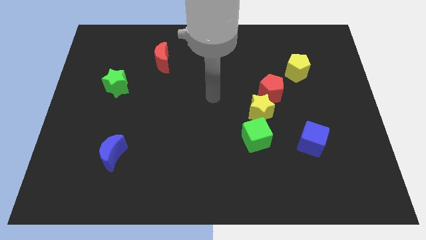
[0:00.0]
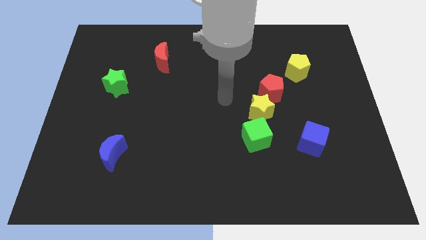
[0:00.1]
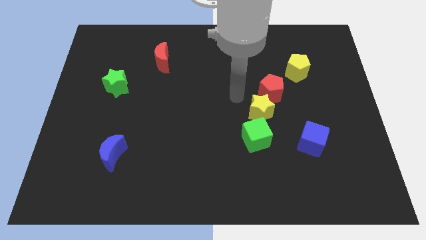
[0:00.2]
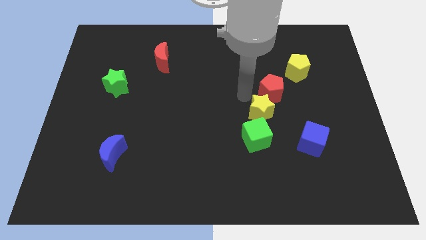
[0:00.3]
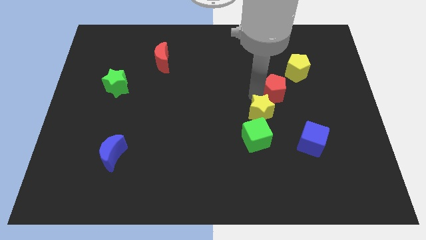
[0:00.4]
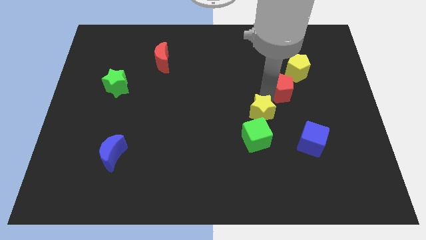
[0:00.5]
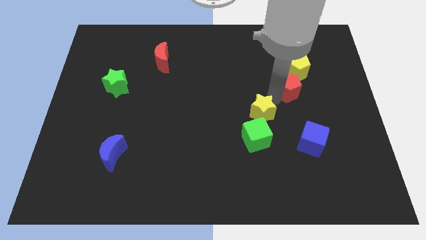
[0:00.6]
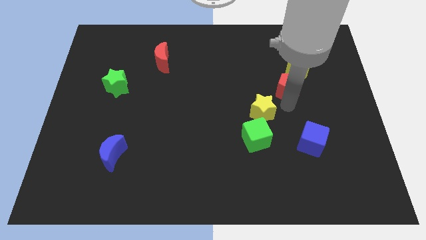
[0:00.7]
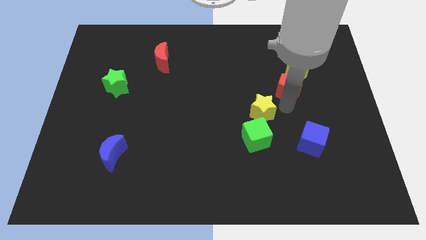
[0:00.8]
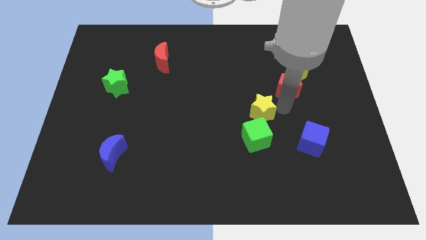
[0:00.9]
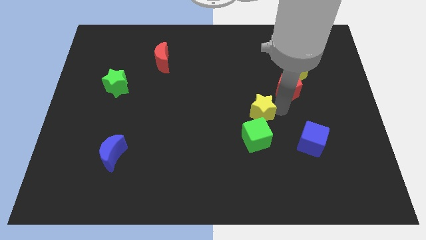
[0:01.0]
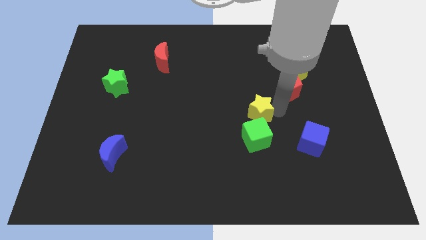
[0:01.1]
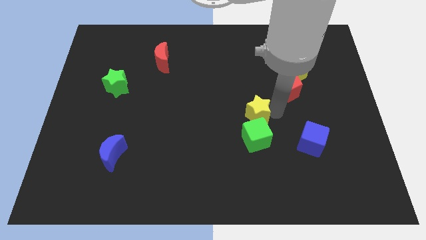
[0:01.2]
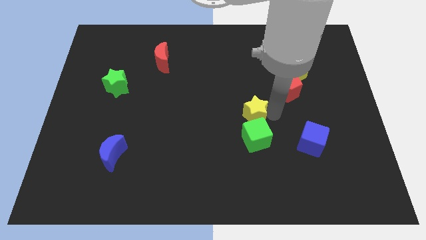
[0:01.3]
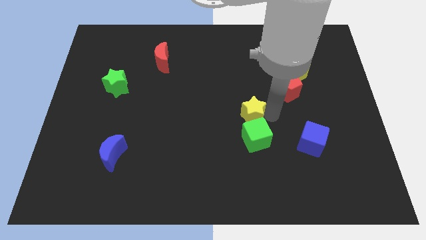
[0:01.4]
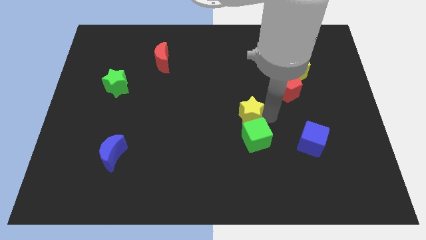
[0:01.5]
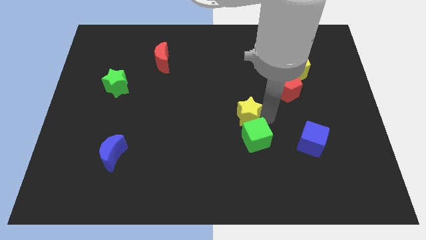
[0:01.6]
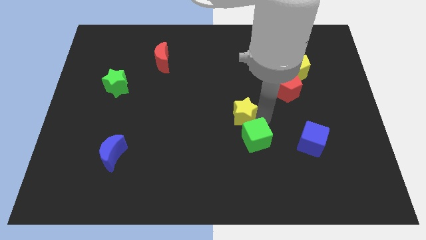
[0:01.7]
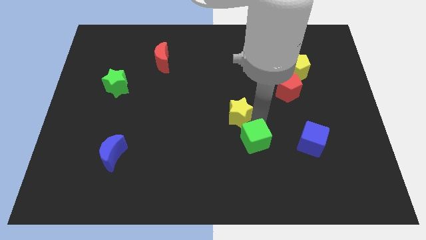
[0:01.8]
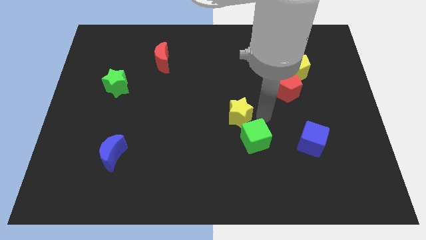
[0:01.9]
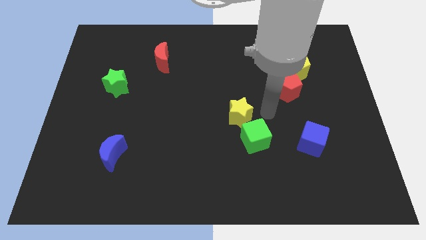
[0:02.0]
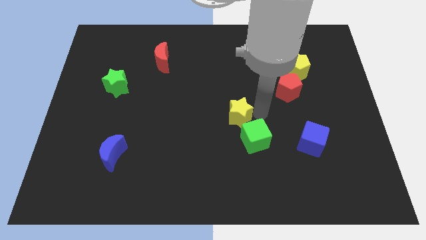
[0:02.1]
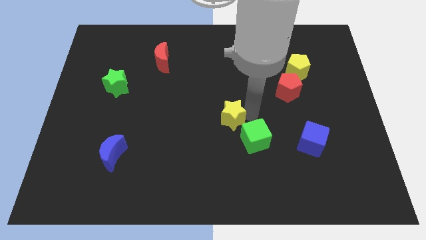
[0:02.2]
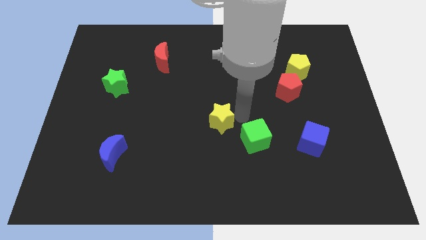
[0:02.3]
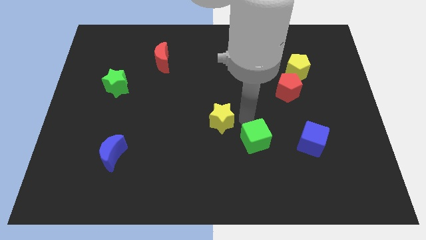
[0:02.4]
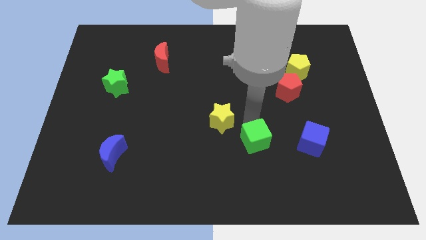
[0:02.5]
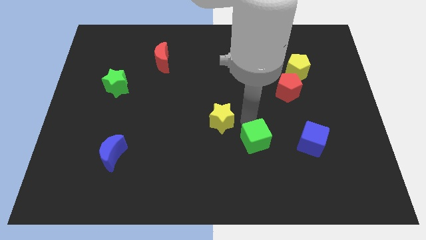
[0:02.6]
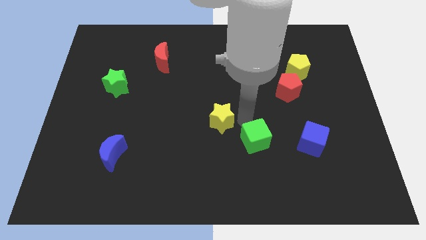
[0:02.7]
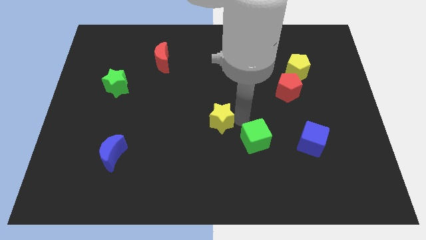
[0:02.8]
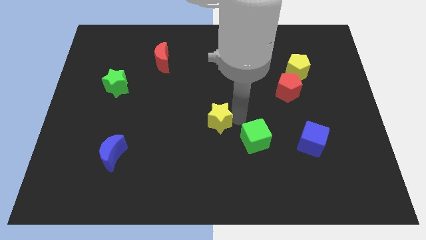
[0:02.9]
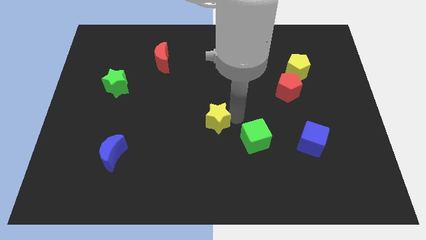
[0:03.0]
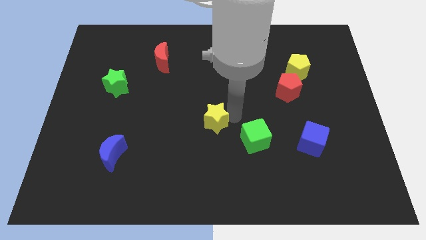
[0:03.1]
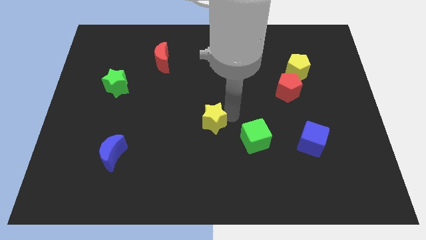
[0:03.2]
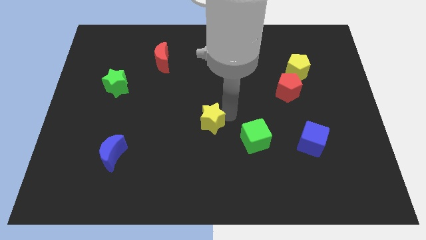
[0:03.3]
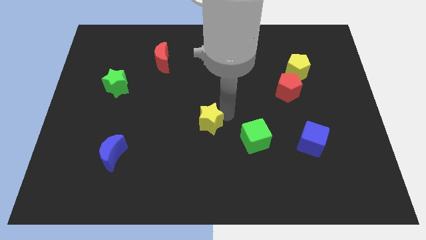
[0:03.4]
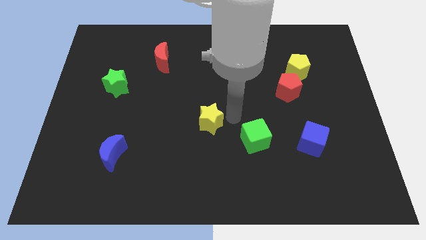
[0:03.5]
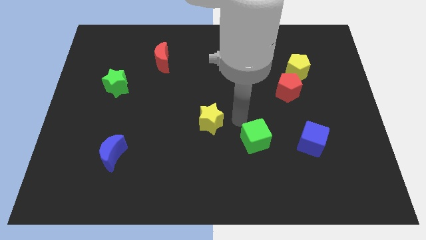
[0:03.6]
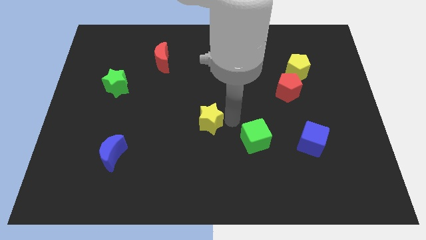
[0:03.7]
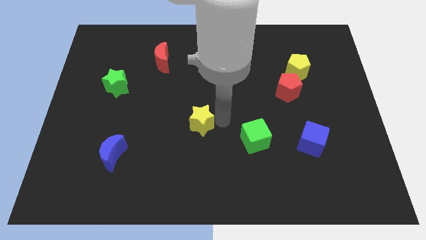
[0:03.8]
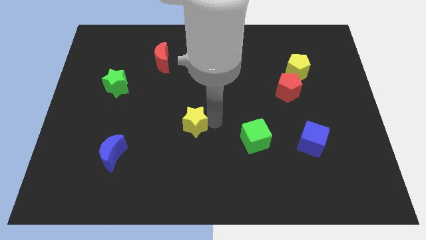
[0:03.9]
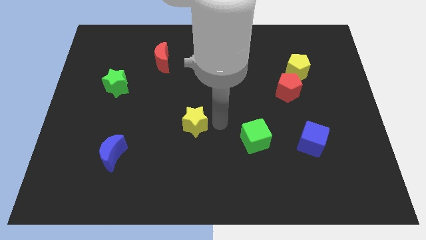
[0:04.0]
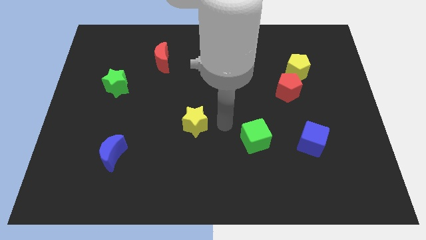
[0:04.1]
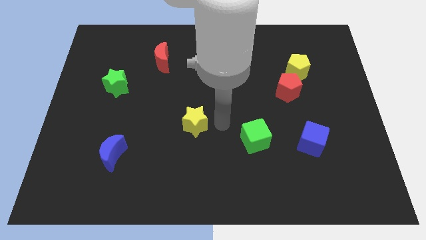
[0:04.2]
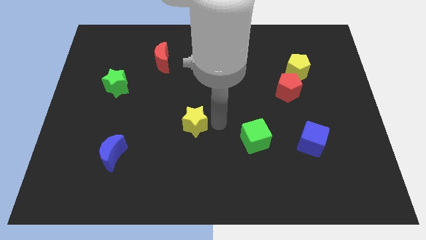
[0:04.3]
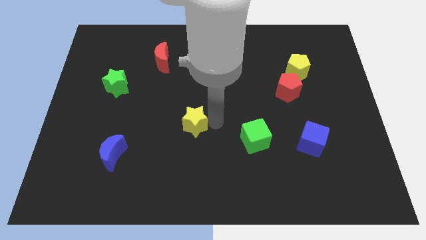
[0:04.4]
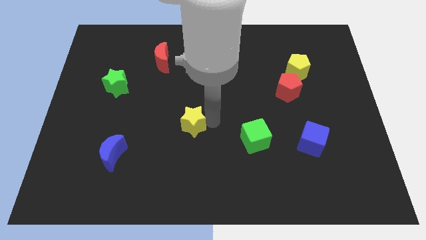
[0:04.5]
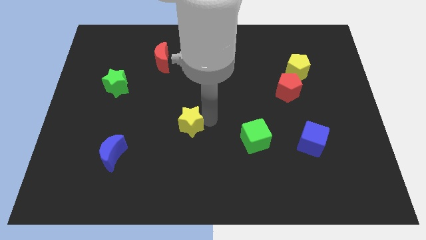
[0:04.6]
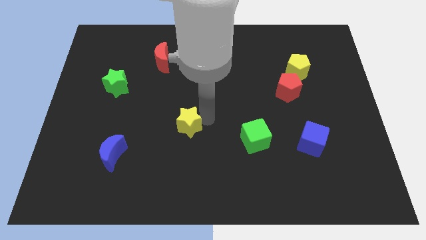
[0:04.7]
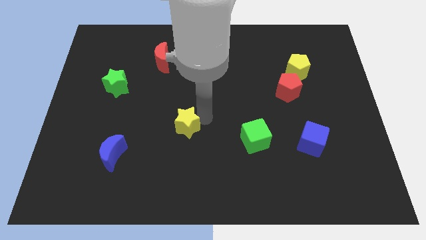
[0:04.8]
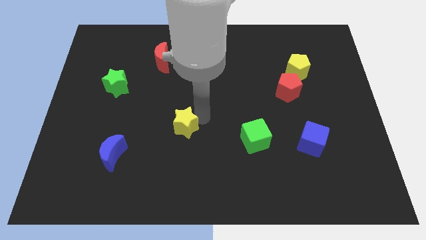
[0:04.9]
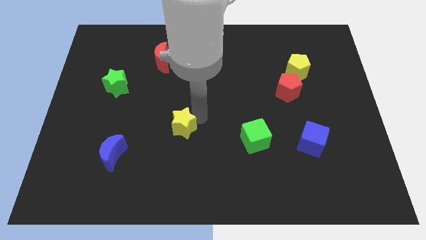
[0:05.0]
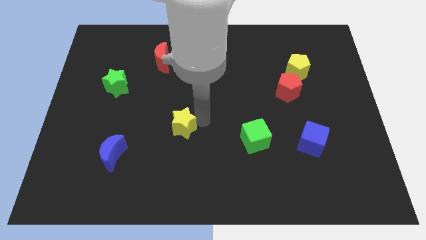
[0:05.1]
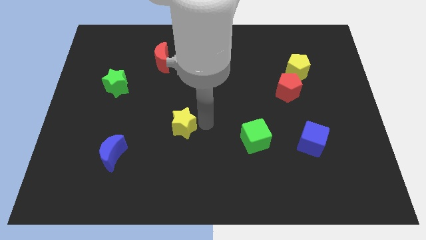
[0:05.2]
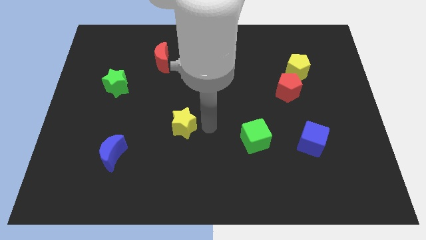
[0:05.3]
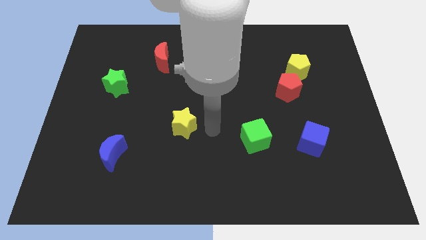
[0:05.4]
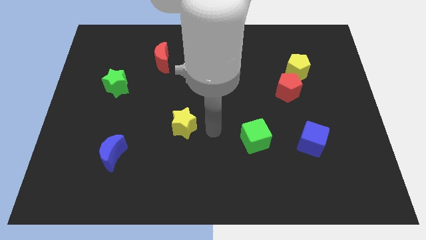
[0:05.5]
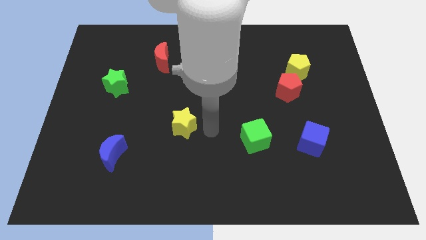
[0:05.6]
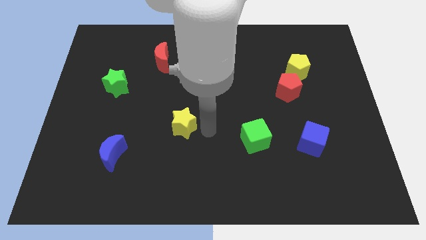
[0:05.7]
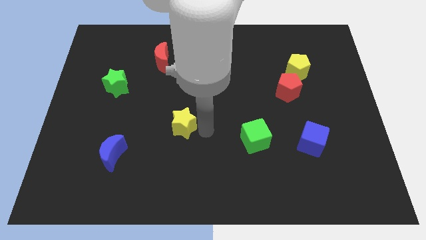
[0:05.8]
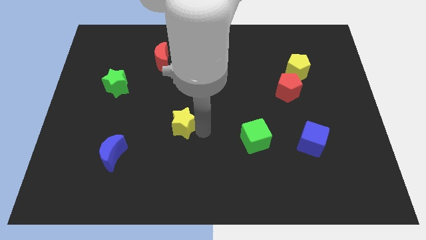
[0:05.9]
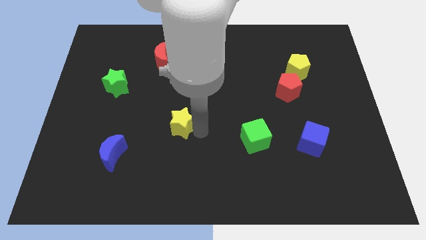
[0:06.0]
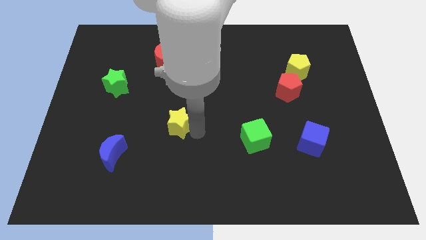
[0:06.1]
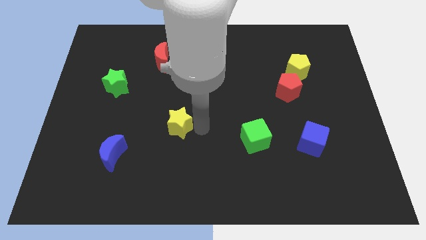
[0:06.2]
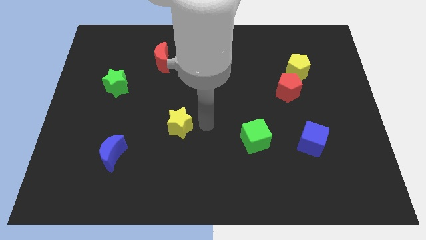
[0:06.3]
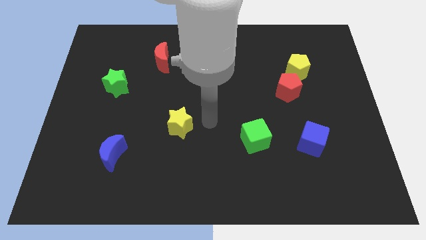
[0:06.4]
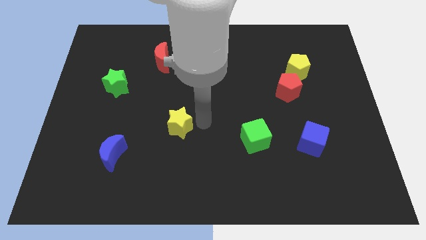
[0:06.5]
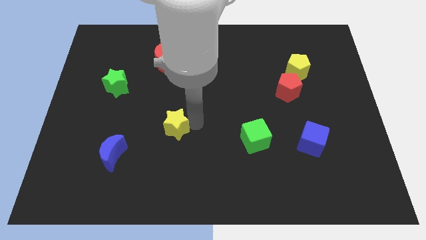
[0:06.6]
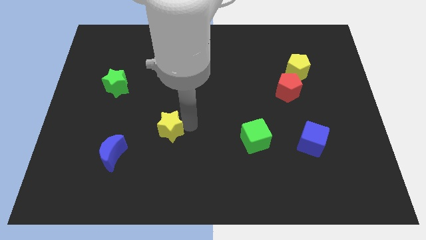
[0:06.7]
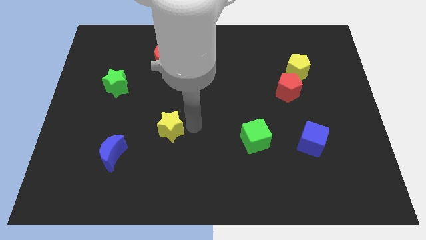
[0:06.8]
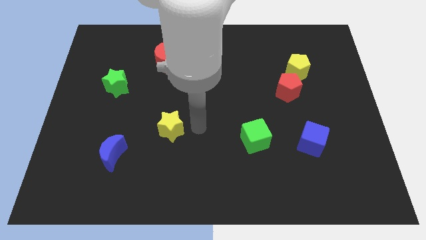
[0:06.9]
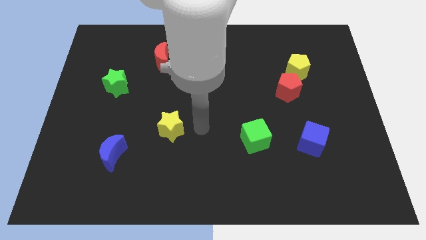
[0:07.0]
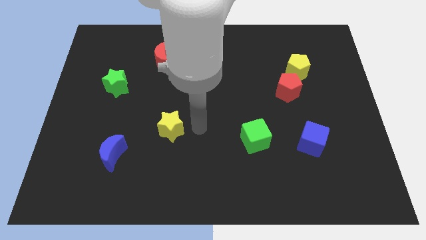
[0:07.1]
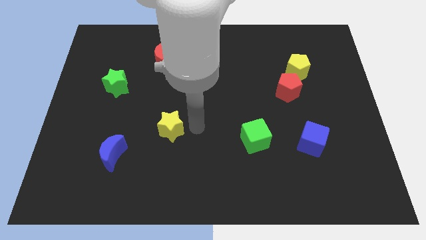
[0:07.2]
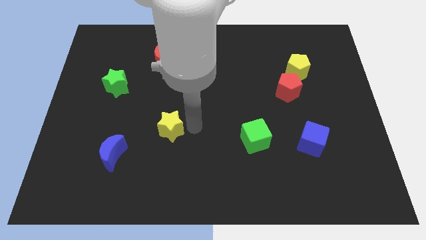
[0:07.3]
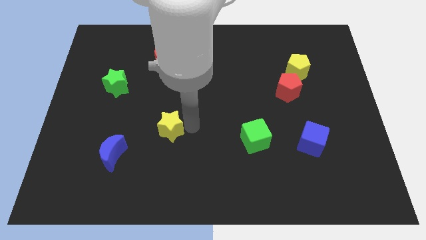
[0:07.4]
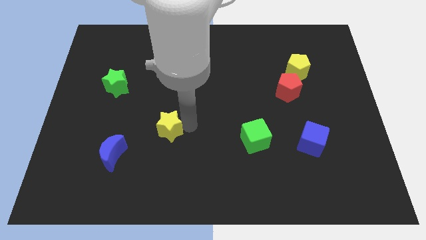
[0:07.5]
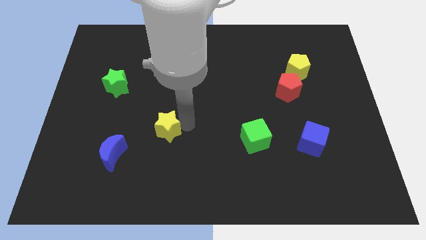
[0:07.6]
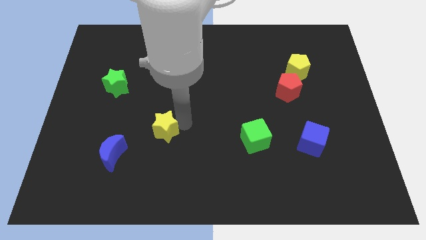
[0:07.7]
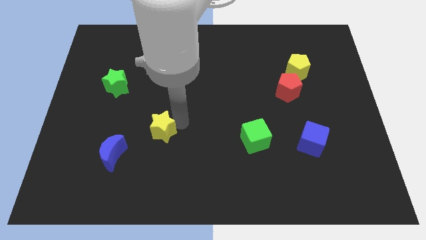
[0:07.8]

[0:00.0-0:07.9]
push the yellow star to the top right side of the blue moon
